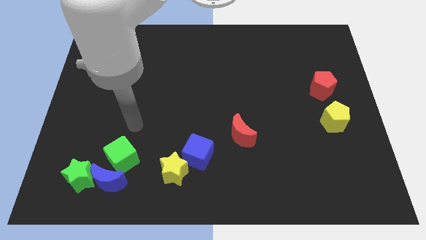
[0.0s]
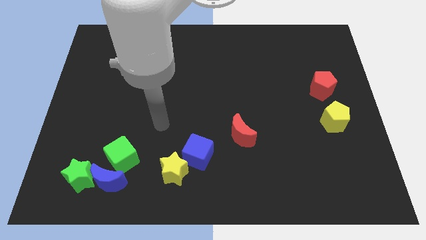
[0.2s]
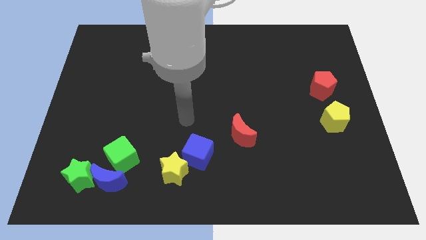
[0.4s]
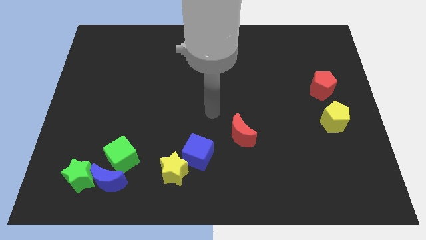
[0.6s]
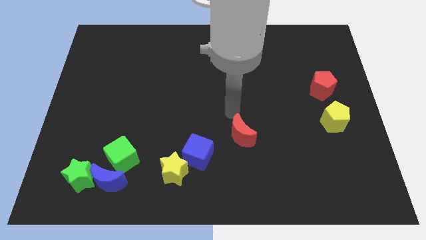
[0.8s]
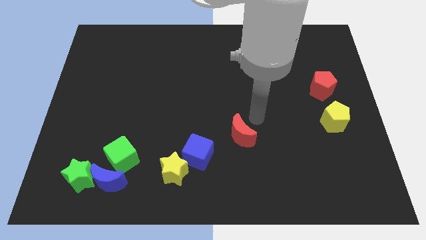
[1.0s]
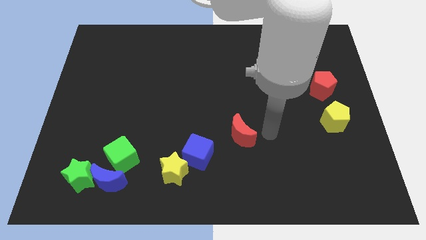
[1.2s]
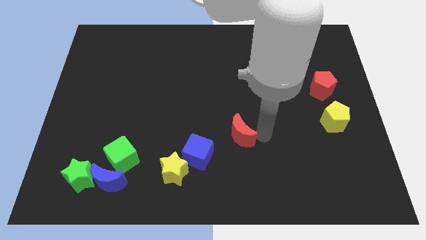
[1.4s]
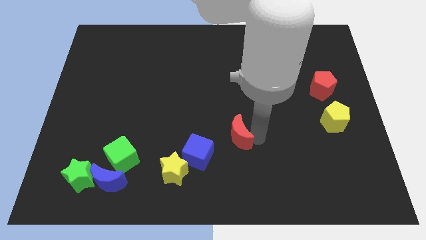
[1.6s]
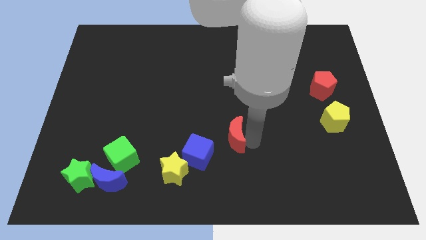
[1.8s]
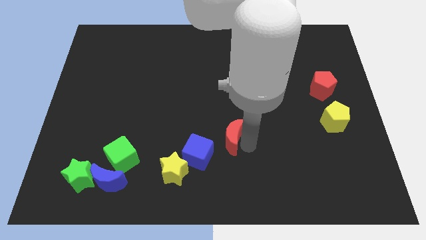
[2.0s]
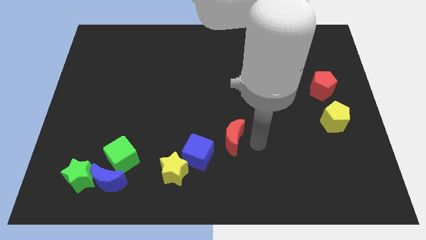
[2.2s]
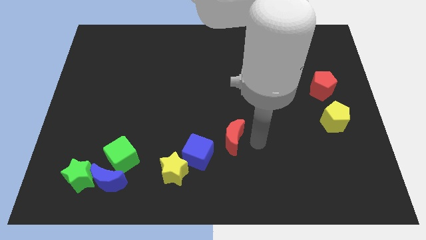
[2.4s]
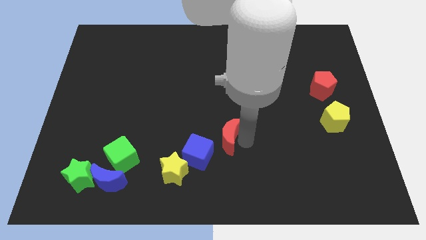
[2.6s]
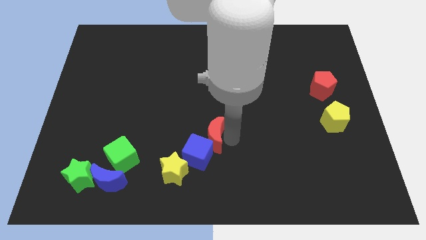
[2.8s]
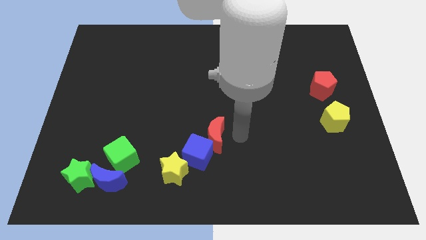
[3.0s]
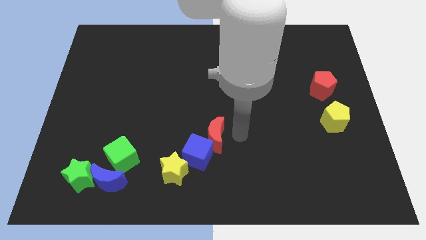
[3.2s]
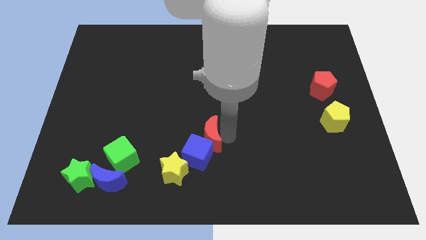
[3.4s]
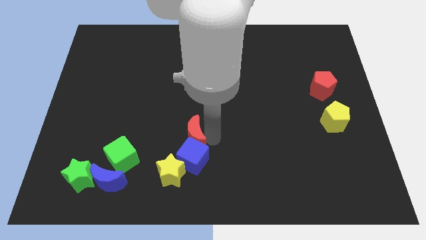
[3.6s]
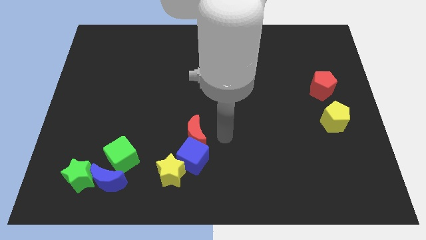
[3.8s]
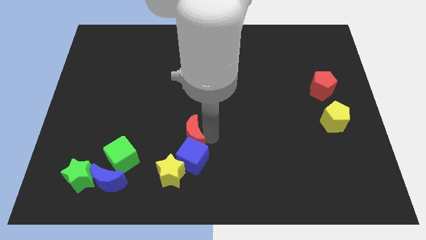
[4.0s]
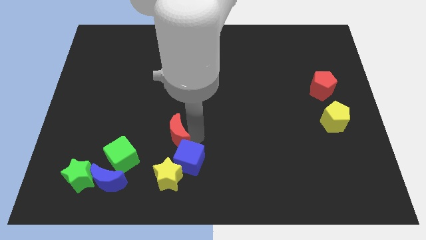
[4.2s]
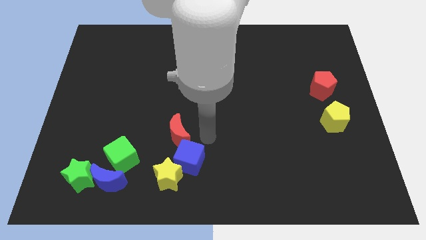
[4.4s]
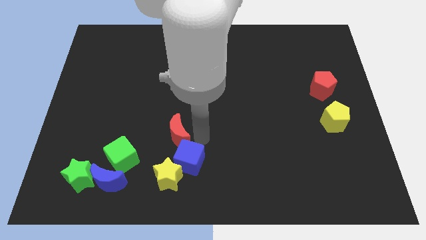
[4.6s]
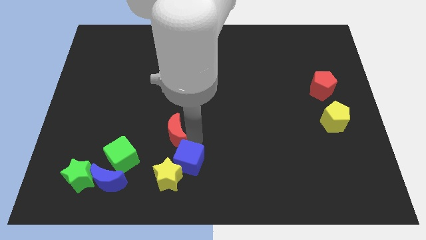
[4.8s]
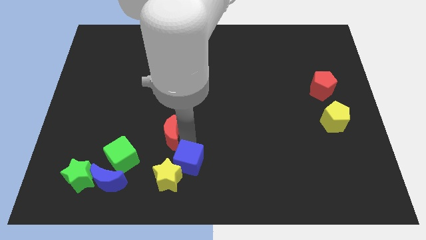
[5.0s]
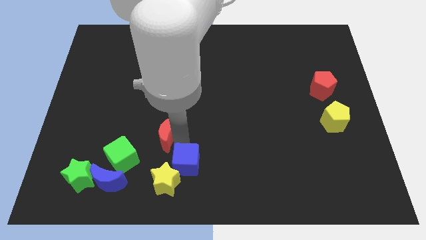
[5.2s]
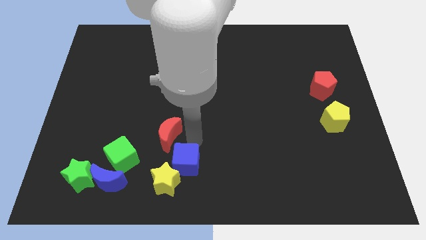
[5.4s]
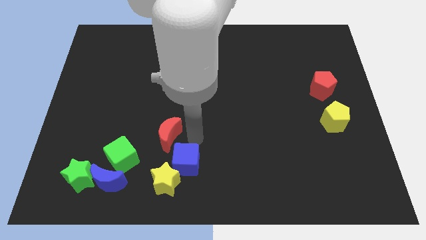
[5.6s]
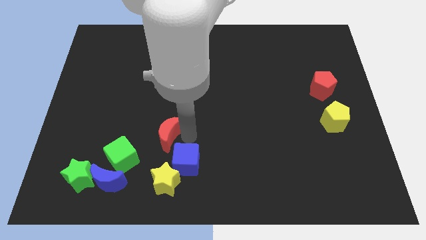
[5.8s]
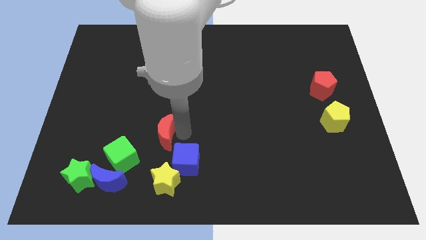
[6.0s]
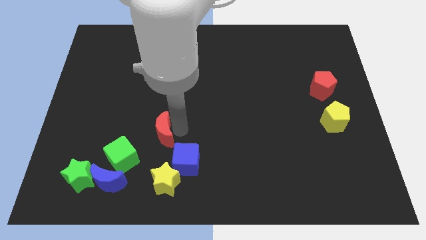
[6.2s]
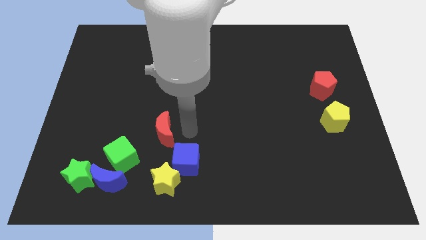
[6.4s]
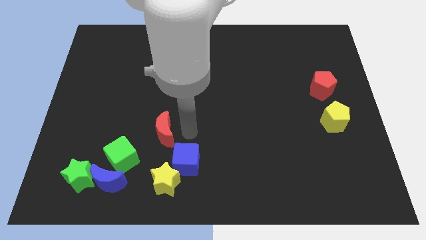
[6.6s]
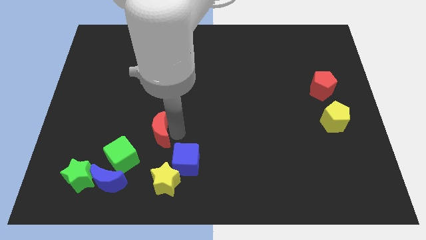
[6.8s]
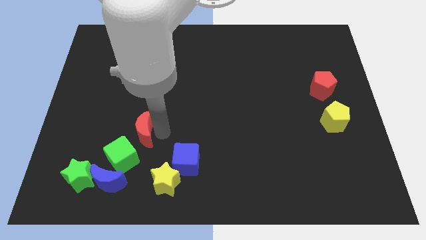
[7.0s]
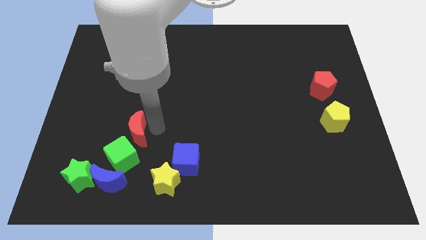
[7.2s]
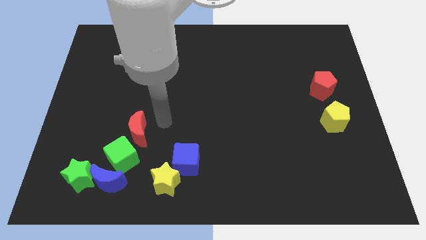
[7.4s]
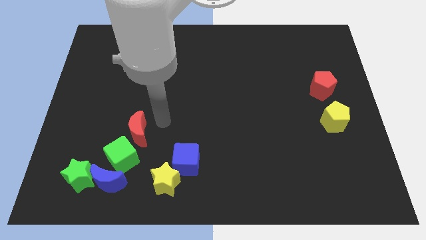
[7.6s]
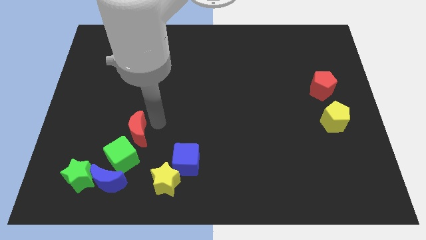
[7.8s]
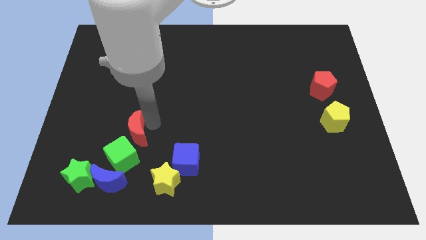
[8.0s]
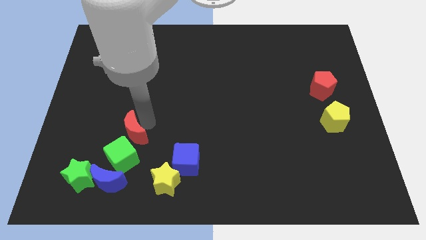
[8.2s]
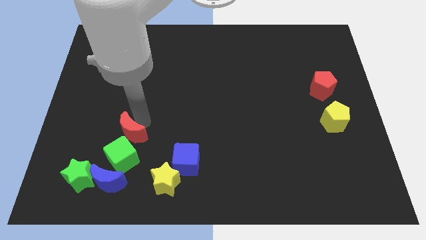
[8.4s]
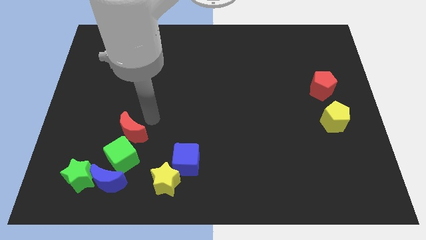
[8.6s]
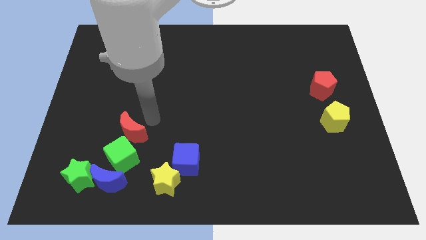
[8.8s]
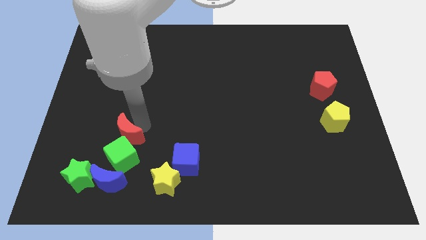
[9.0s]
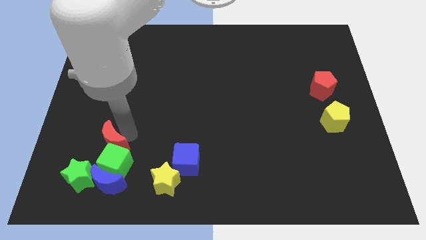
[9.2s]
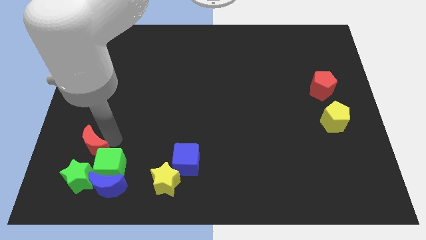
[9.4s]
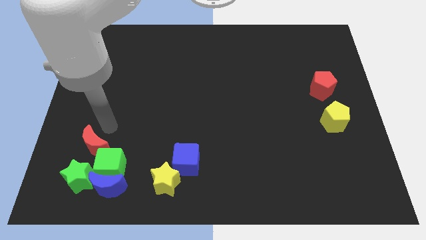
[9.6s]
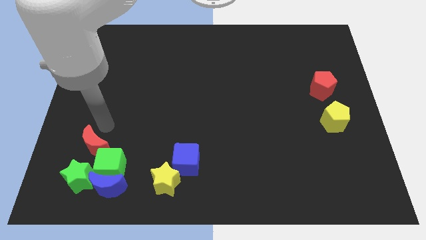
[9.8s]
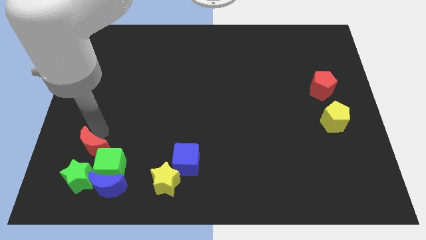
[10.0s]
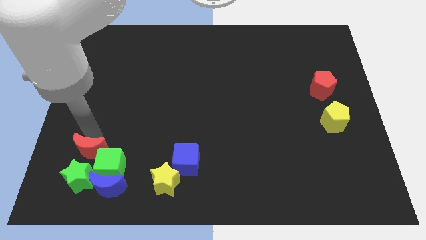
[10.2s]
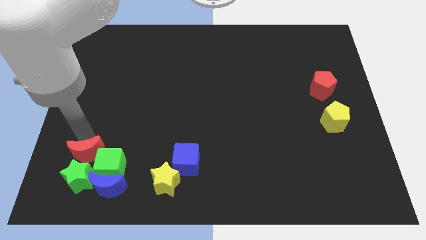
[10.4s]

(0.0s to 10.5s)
slide the red moon to the green star

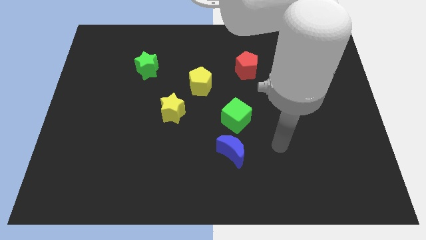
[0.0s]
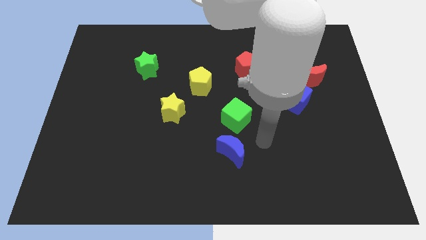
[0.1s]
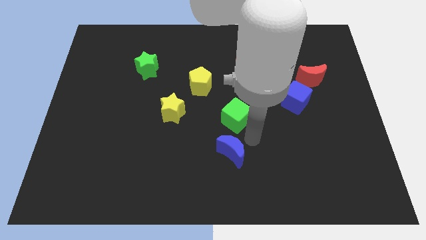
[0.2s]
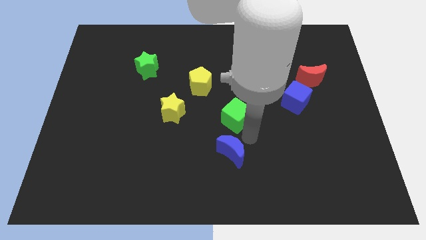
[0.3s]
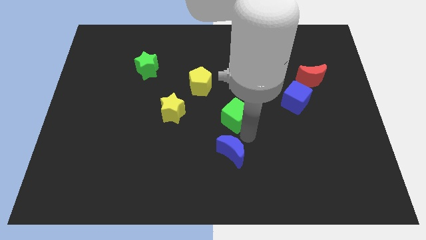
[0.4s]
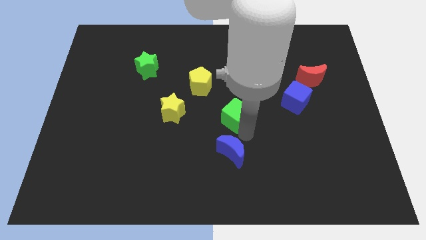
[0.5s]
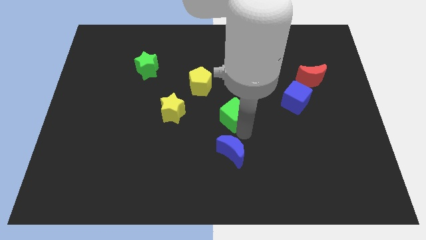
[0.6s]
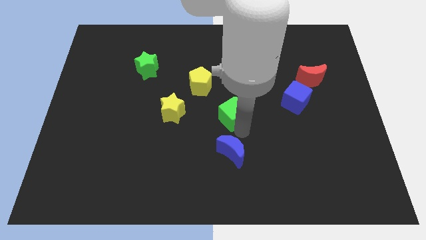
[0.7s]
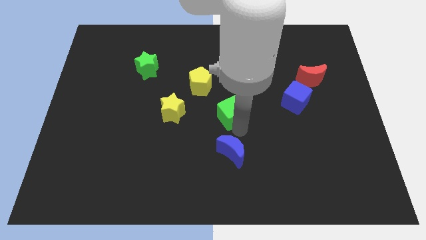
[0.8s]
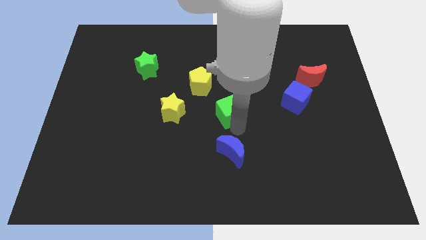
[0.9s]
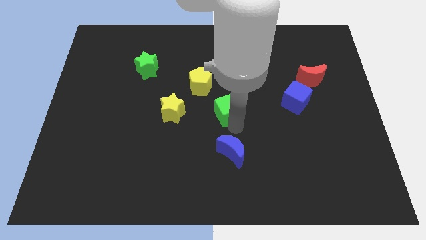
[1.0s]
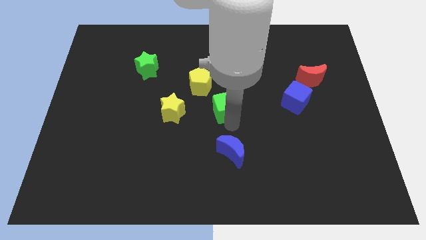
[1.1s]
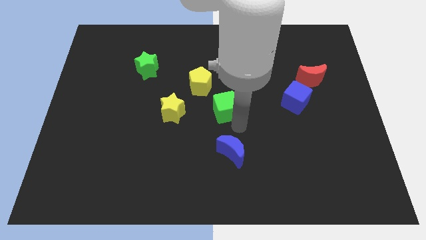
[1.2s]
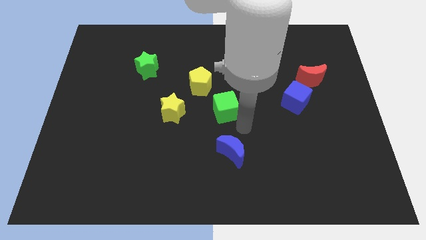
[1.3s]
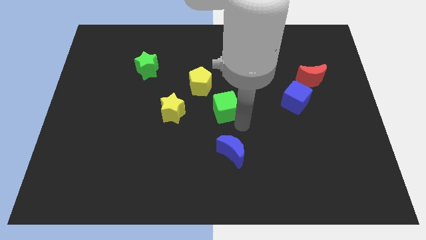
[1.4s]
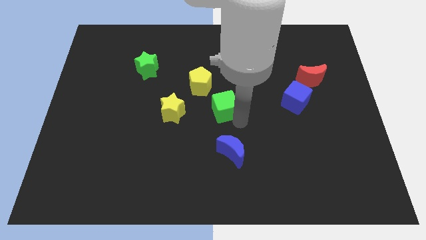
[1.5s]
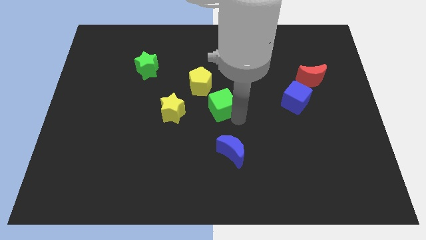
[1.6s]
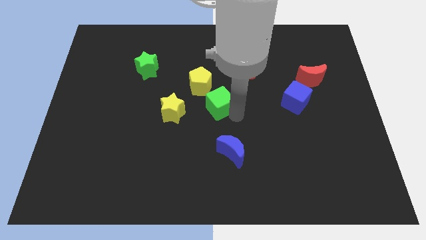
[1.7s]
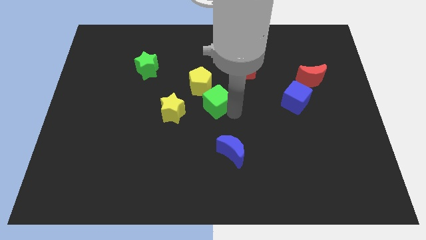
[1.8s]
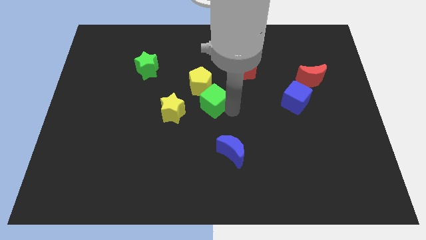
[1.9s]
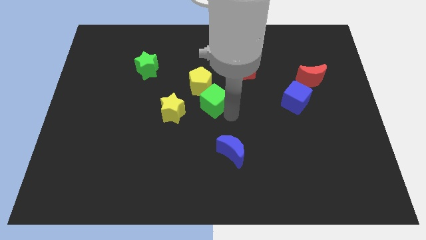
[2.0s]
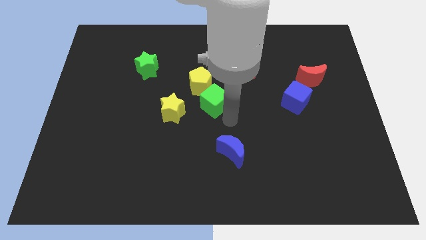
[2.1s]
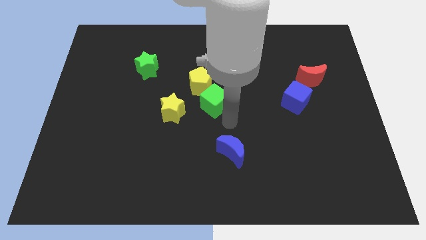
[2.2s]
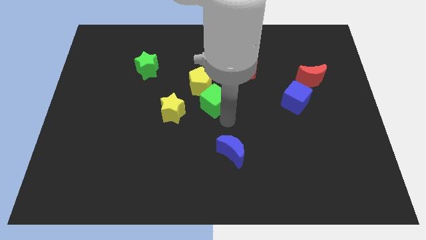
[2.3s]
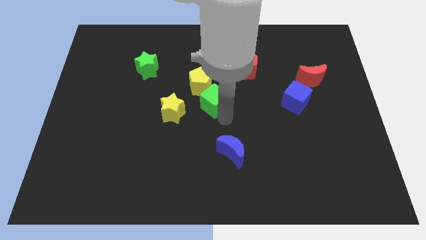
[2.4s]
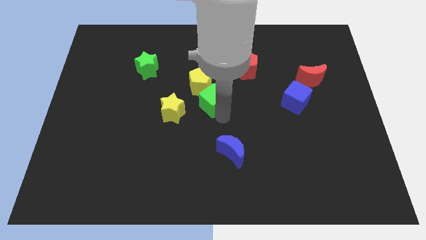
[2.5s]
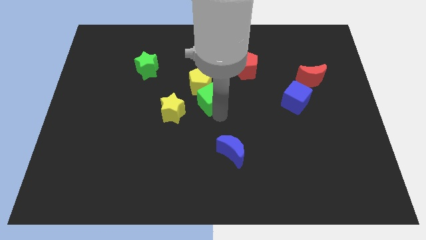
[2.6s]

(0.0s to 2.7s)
push the green cube close to the yellow pentagon
